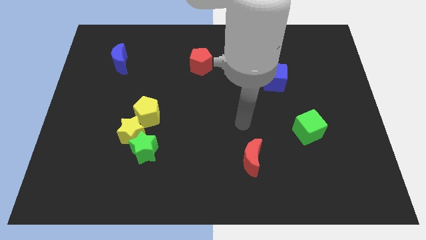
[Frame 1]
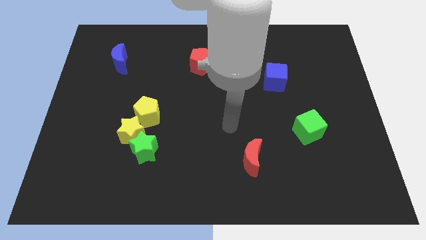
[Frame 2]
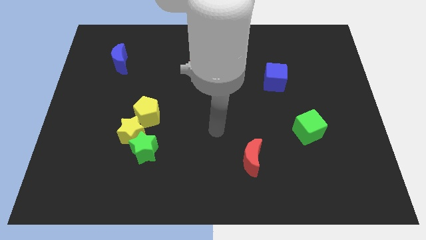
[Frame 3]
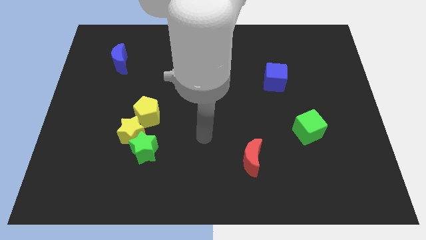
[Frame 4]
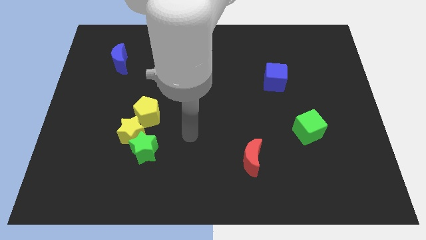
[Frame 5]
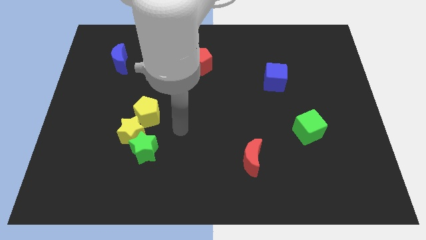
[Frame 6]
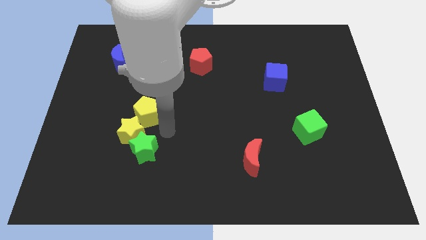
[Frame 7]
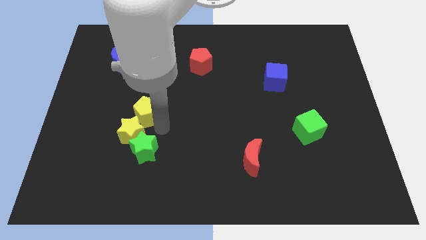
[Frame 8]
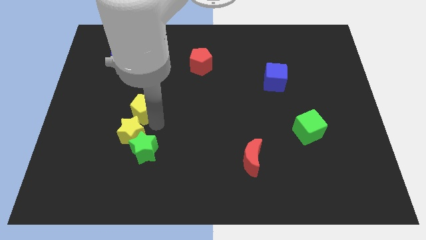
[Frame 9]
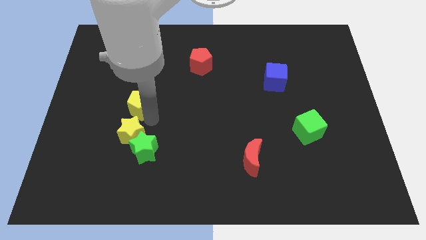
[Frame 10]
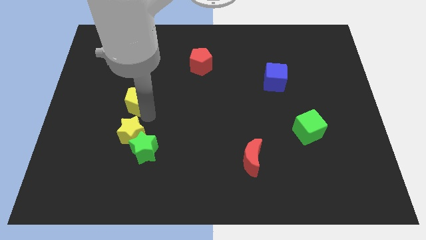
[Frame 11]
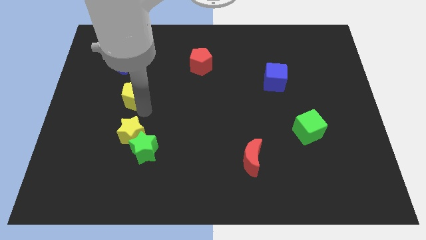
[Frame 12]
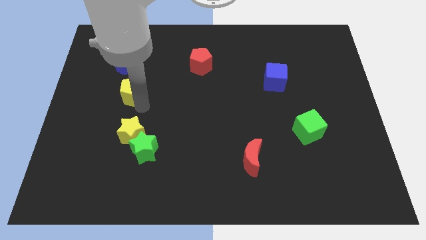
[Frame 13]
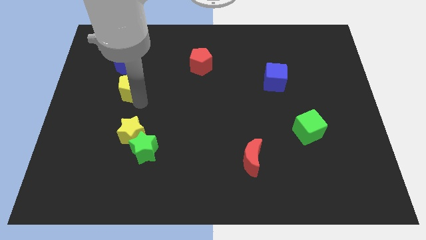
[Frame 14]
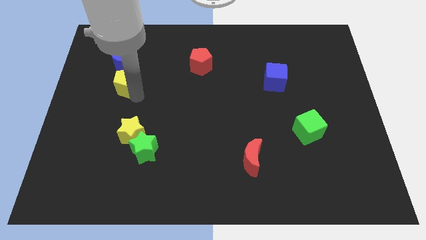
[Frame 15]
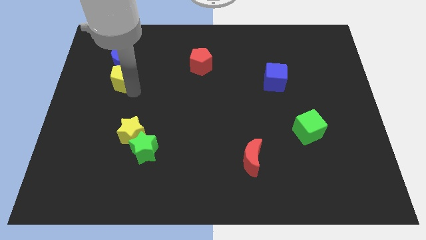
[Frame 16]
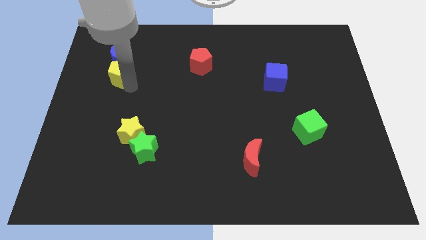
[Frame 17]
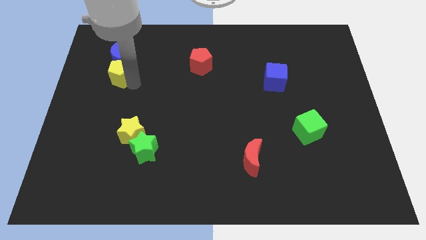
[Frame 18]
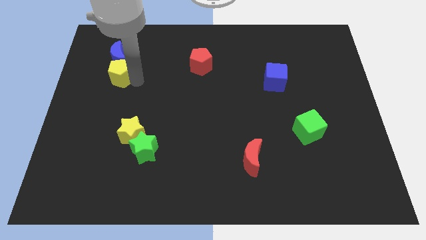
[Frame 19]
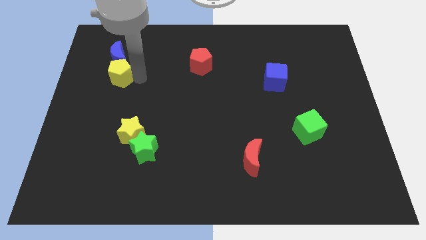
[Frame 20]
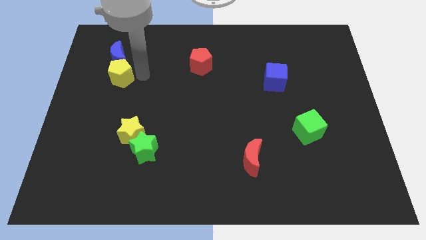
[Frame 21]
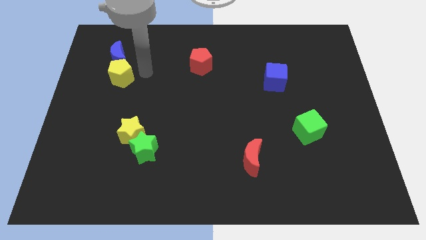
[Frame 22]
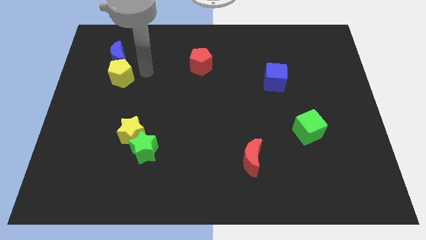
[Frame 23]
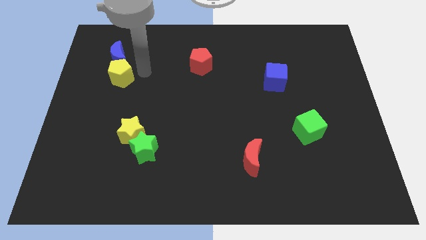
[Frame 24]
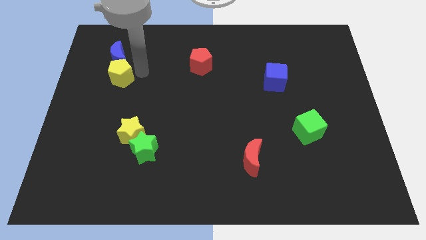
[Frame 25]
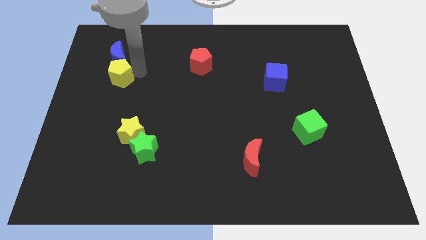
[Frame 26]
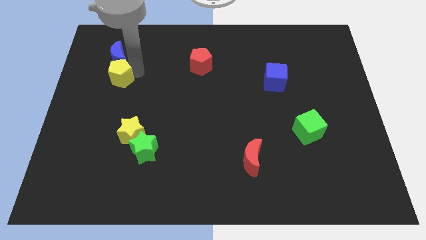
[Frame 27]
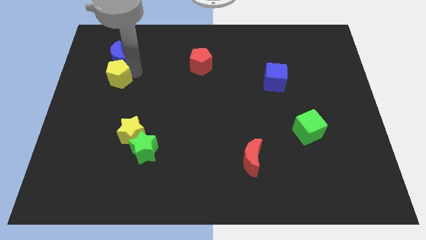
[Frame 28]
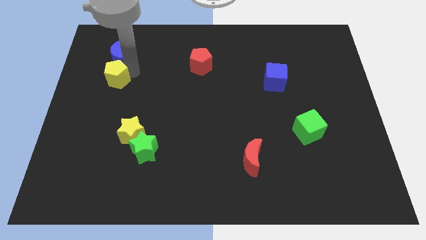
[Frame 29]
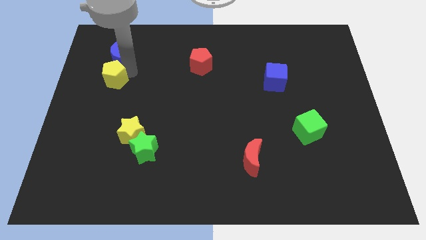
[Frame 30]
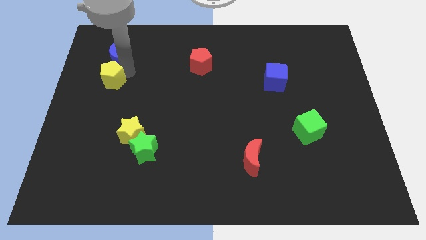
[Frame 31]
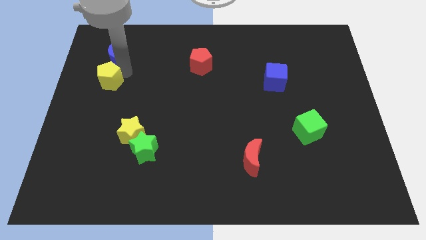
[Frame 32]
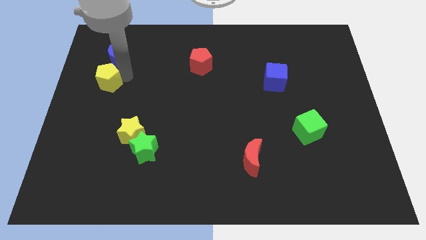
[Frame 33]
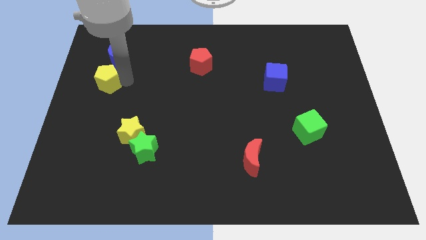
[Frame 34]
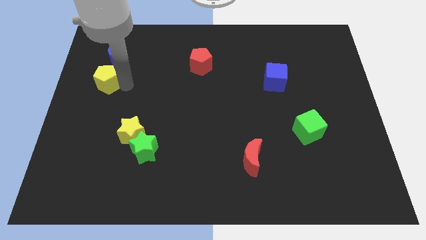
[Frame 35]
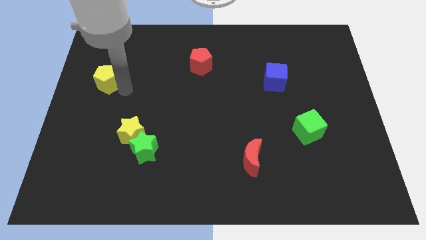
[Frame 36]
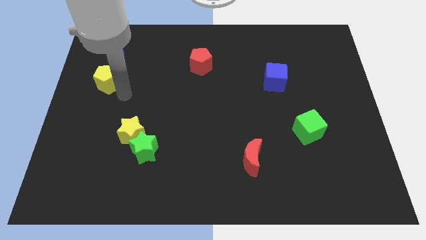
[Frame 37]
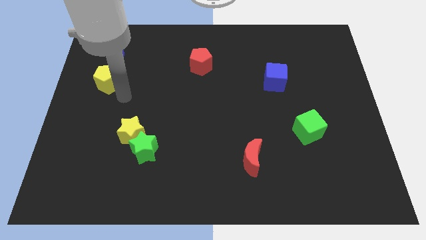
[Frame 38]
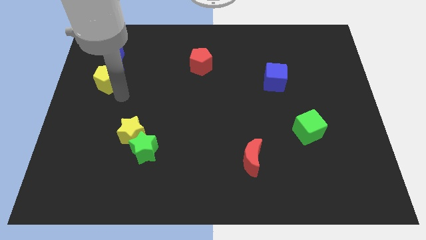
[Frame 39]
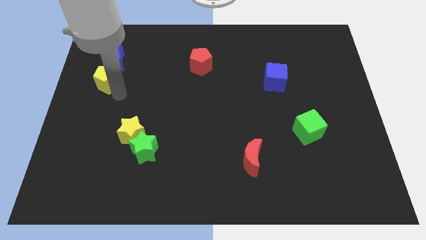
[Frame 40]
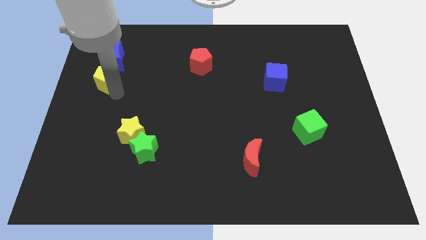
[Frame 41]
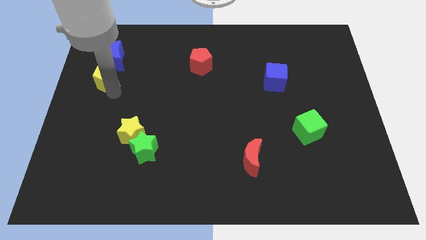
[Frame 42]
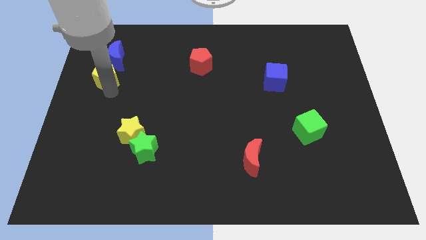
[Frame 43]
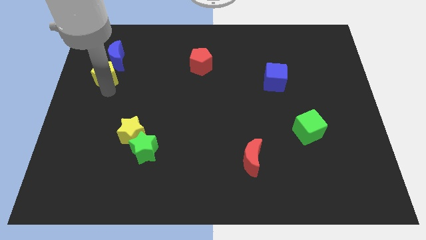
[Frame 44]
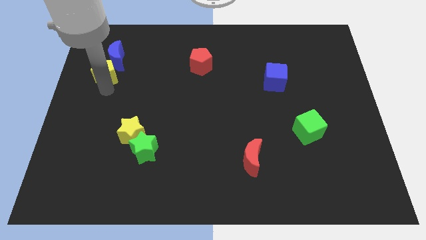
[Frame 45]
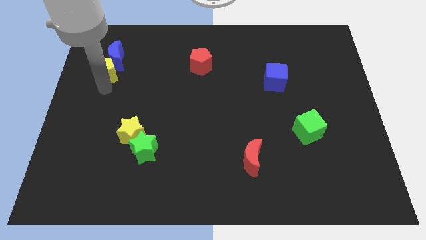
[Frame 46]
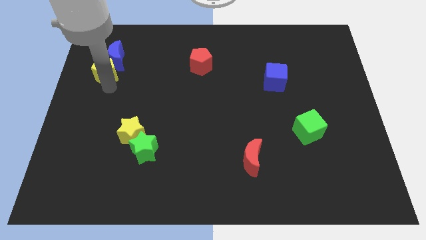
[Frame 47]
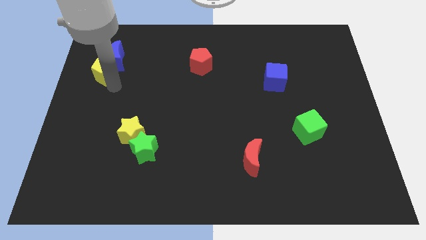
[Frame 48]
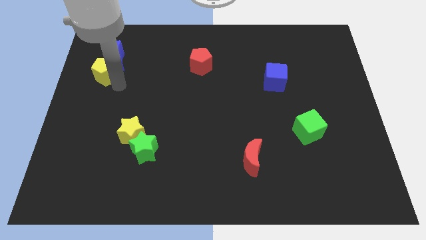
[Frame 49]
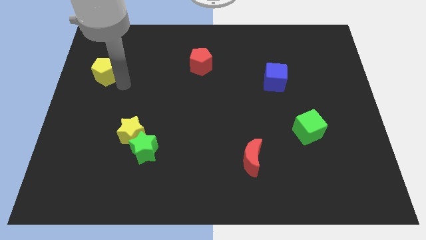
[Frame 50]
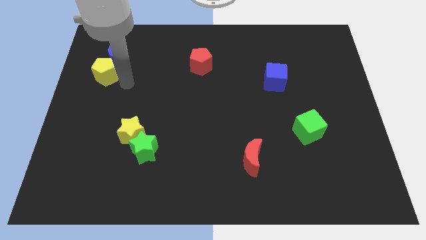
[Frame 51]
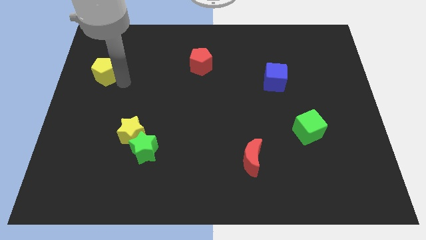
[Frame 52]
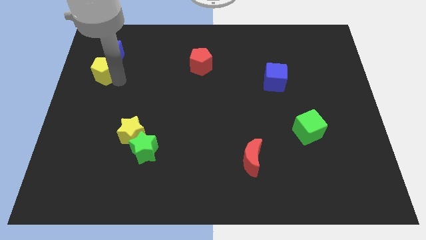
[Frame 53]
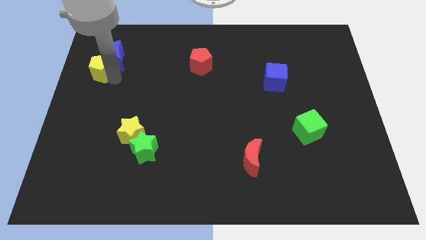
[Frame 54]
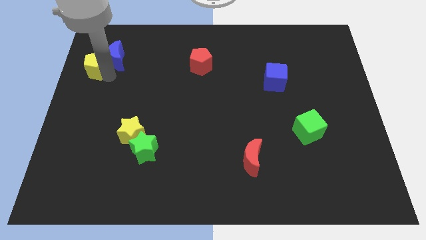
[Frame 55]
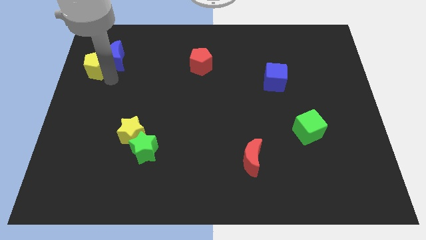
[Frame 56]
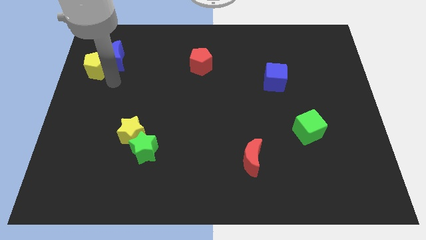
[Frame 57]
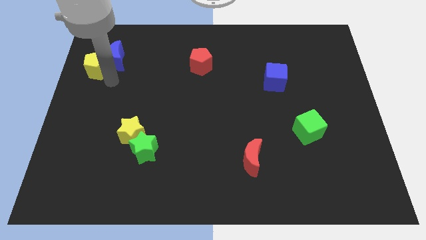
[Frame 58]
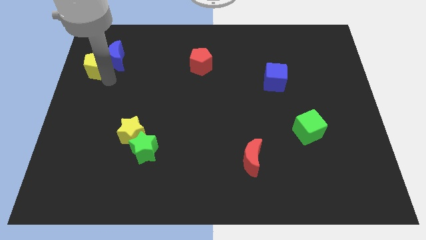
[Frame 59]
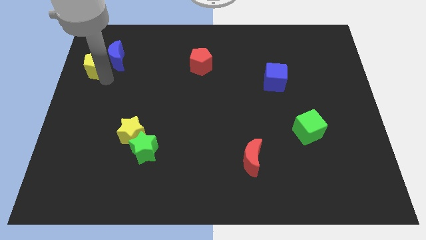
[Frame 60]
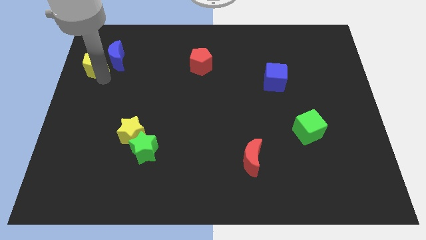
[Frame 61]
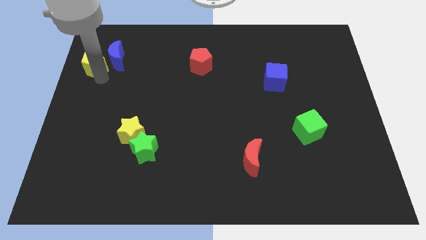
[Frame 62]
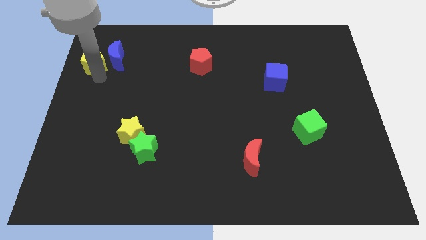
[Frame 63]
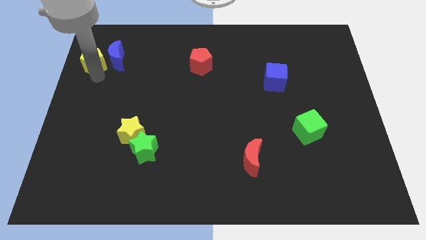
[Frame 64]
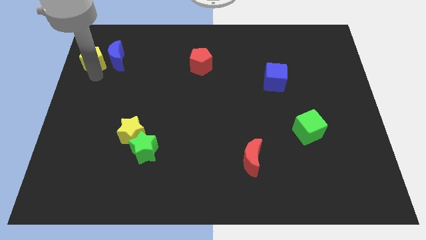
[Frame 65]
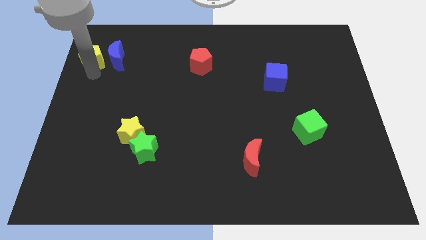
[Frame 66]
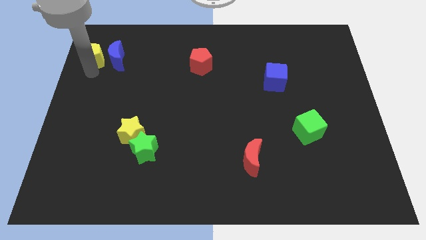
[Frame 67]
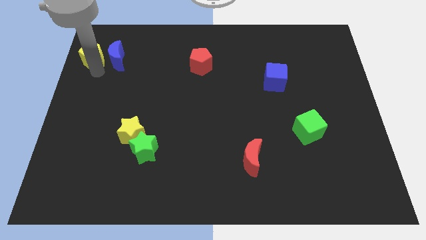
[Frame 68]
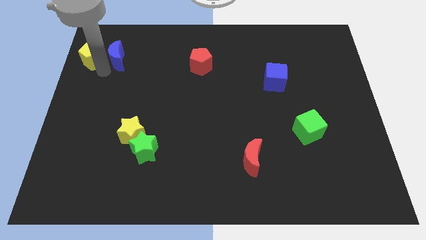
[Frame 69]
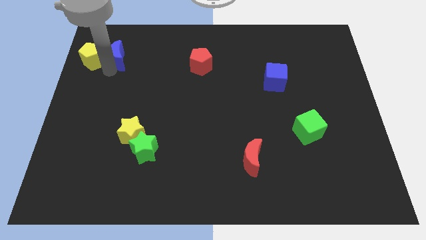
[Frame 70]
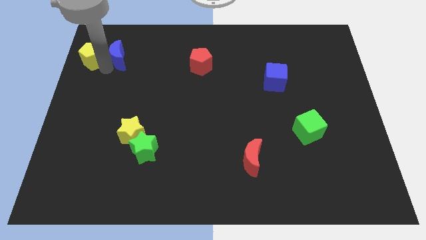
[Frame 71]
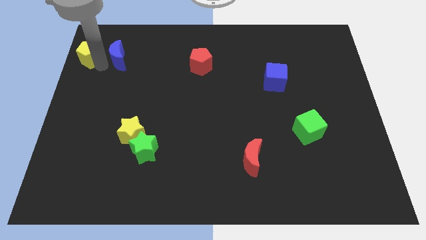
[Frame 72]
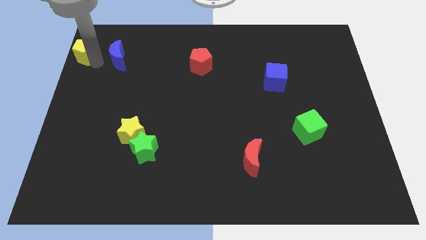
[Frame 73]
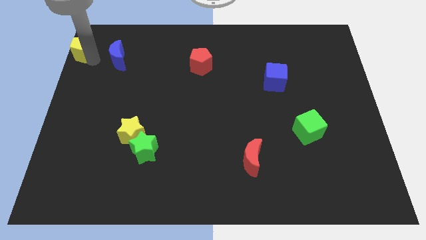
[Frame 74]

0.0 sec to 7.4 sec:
push the yellow pentagon to the top left corner
